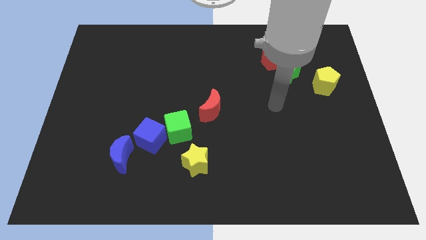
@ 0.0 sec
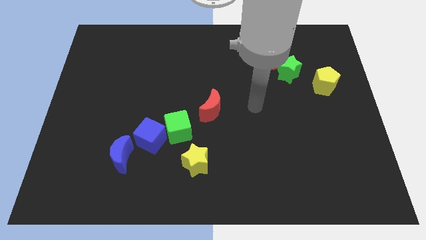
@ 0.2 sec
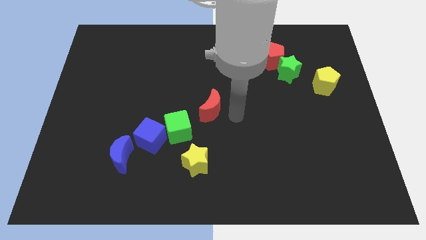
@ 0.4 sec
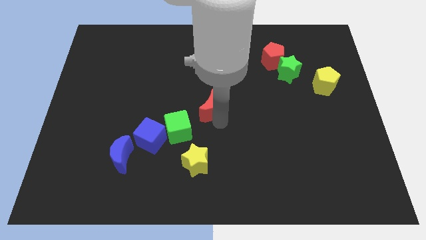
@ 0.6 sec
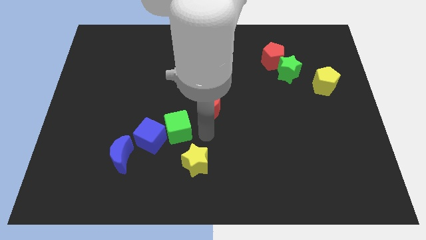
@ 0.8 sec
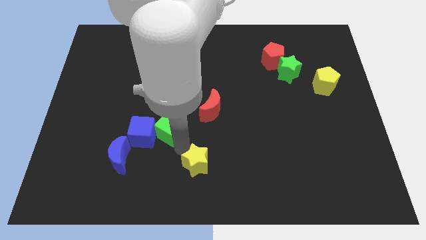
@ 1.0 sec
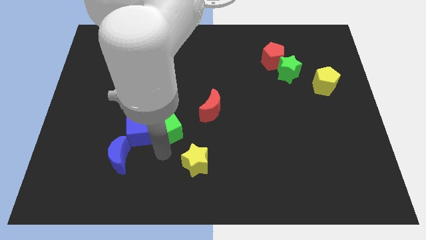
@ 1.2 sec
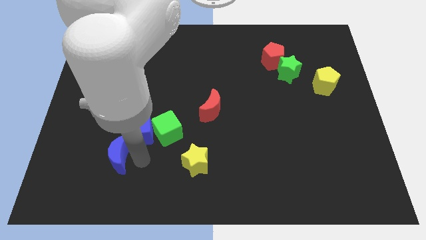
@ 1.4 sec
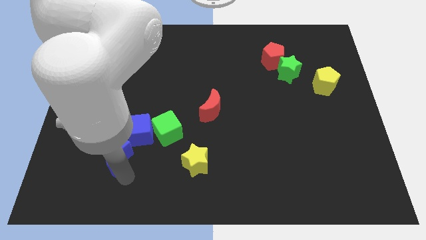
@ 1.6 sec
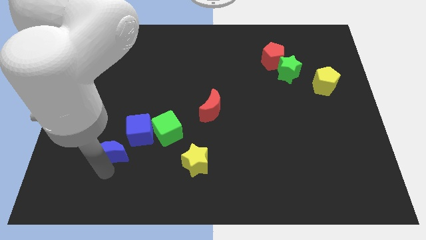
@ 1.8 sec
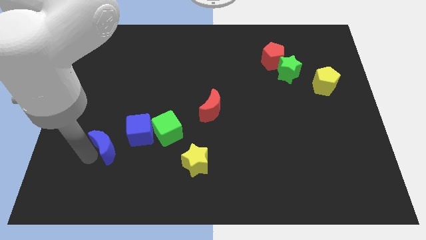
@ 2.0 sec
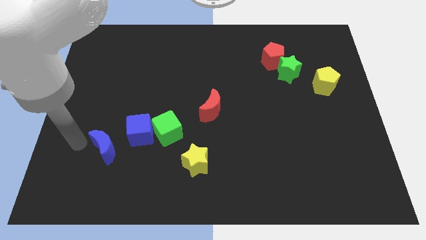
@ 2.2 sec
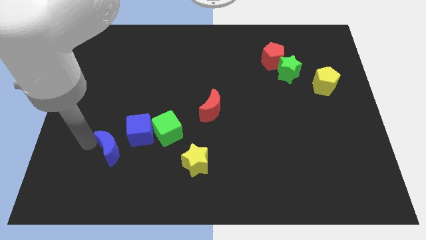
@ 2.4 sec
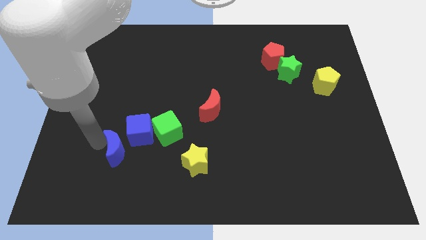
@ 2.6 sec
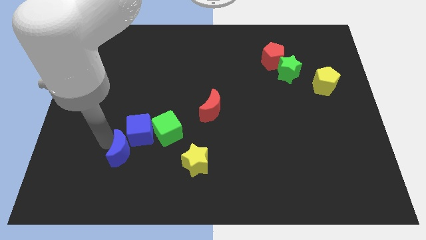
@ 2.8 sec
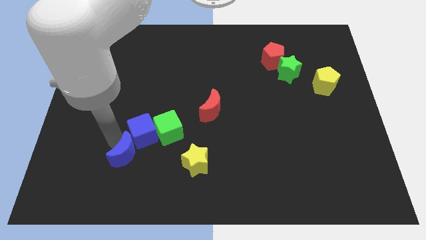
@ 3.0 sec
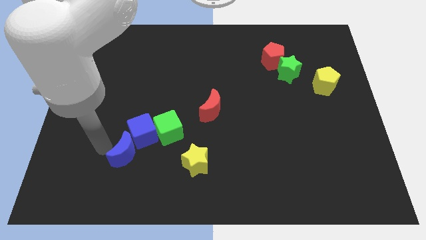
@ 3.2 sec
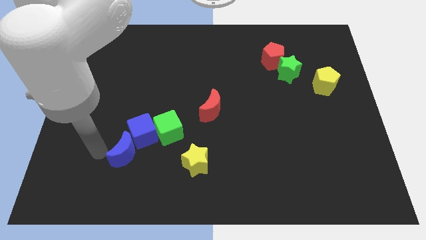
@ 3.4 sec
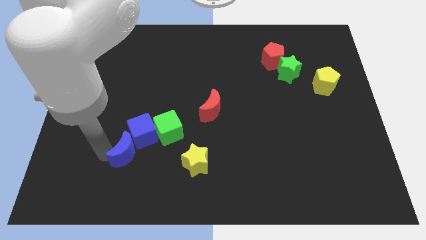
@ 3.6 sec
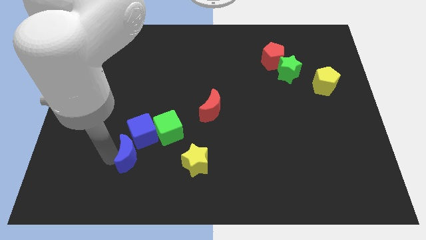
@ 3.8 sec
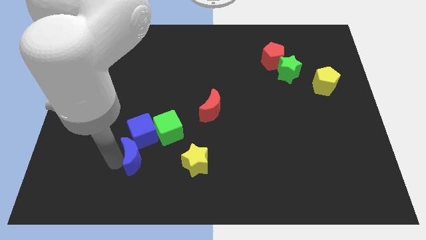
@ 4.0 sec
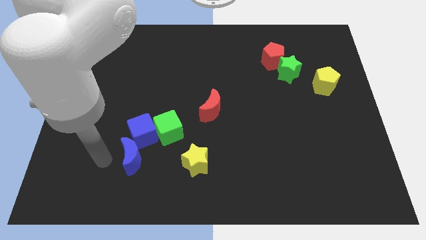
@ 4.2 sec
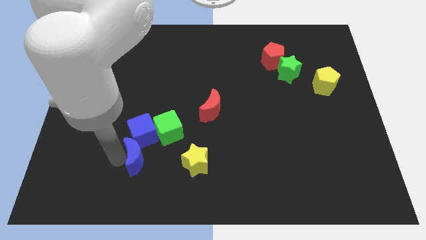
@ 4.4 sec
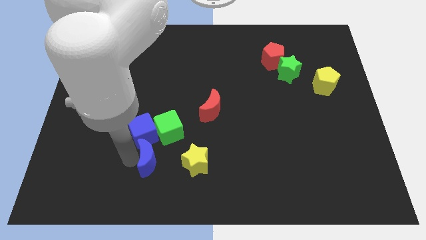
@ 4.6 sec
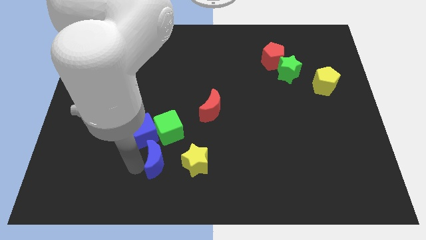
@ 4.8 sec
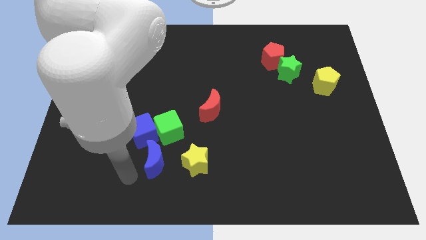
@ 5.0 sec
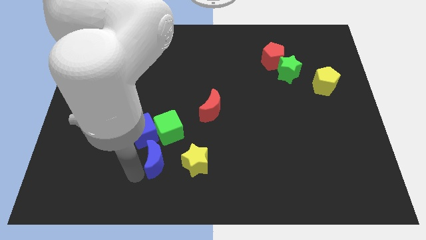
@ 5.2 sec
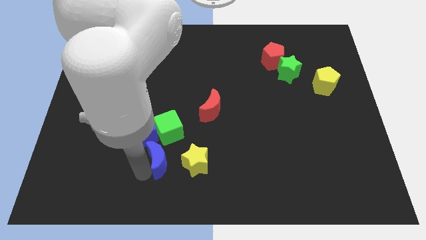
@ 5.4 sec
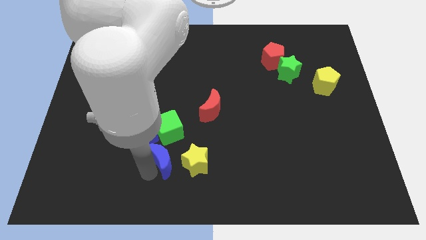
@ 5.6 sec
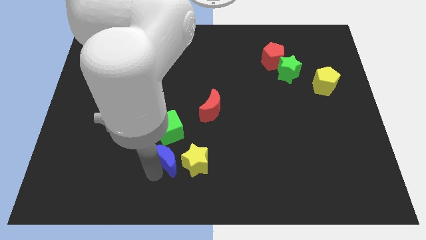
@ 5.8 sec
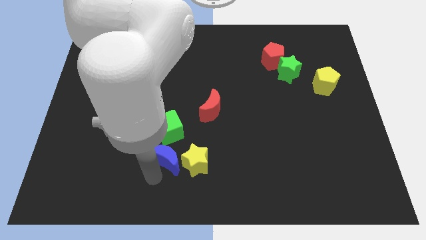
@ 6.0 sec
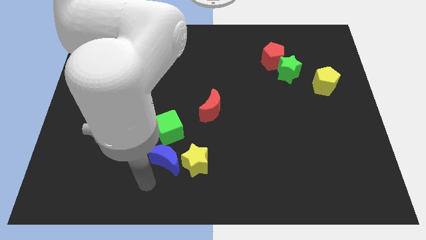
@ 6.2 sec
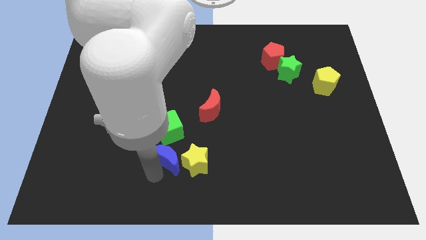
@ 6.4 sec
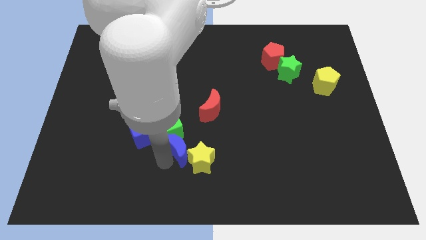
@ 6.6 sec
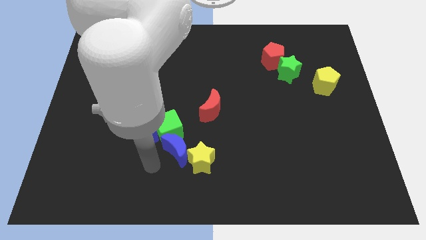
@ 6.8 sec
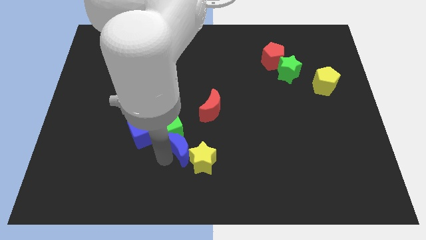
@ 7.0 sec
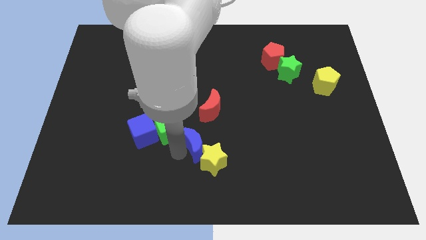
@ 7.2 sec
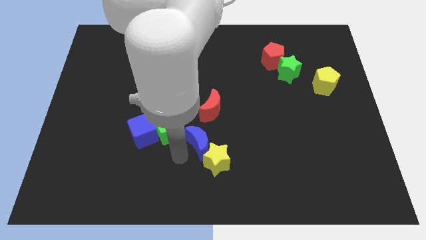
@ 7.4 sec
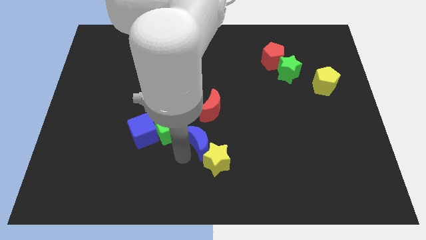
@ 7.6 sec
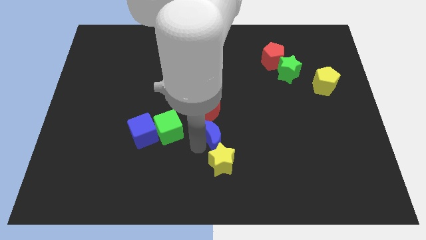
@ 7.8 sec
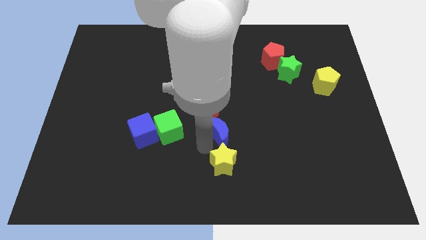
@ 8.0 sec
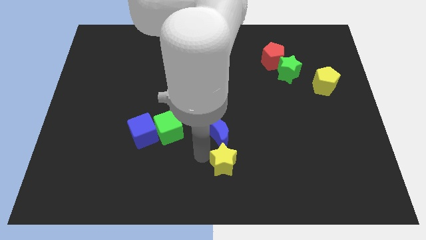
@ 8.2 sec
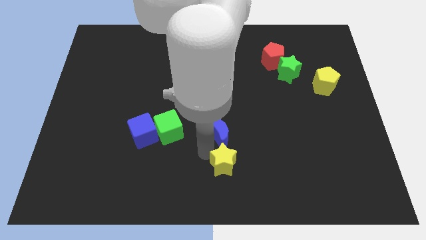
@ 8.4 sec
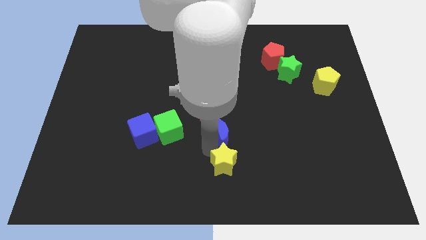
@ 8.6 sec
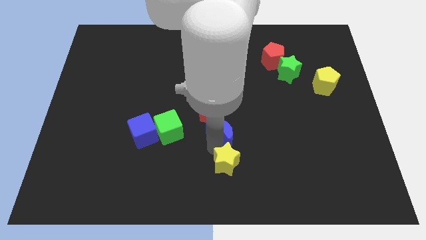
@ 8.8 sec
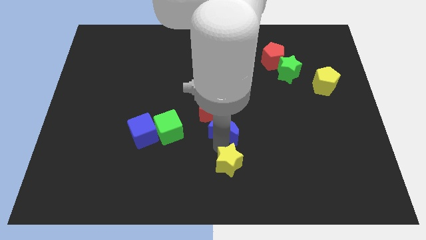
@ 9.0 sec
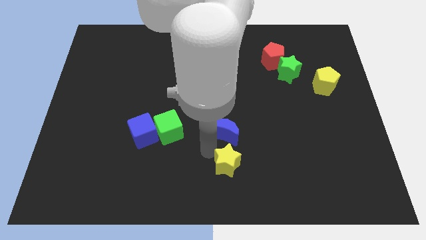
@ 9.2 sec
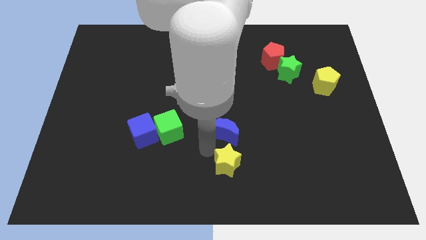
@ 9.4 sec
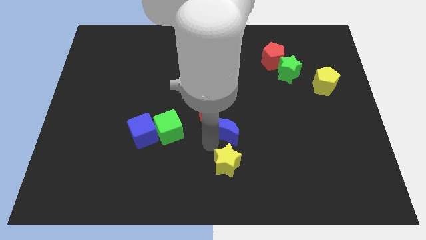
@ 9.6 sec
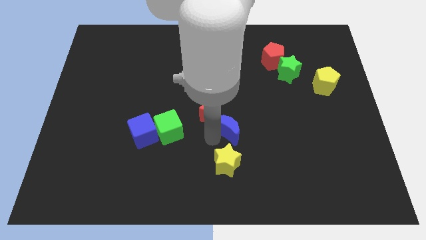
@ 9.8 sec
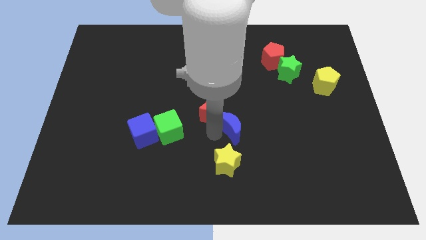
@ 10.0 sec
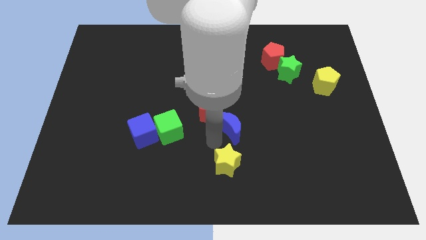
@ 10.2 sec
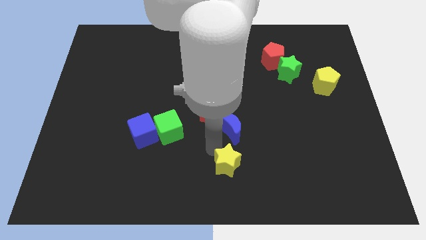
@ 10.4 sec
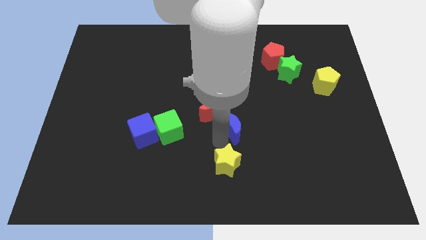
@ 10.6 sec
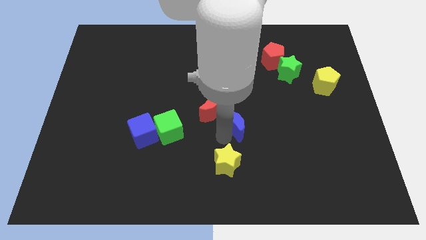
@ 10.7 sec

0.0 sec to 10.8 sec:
put the blue moon to the right of the red moon

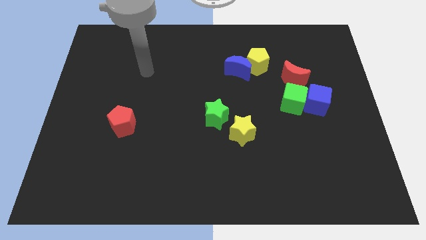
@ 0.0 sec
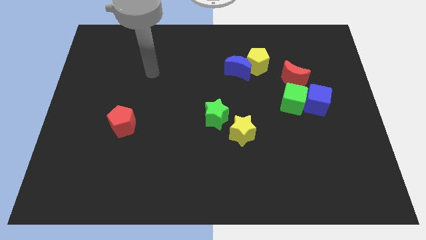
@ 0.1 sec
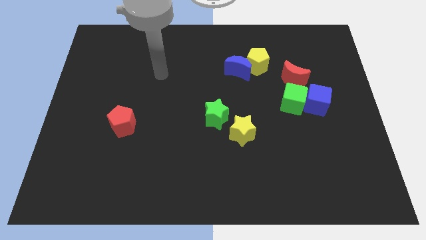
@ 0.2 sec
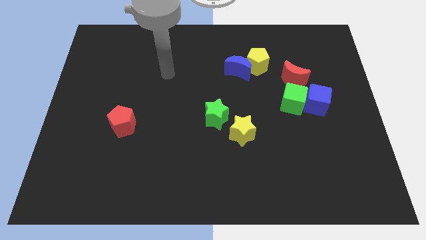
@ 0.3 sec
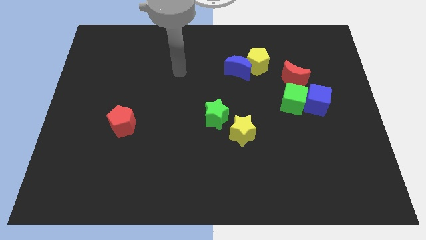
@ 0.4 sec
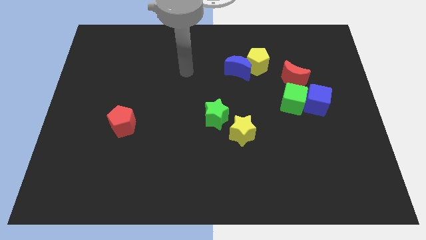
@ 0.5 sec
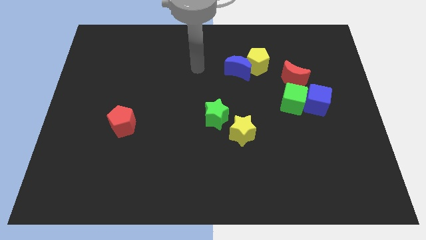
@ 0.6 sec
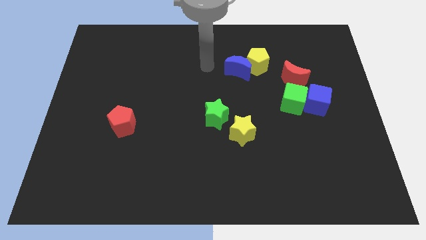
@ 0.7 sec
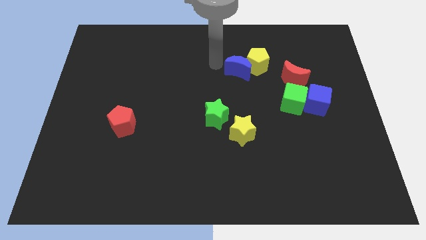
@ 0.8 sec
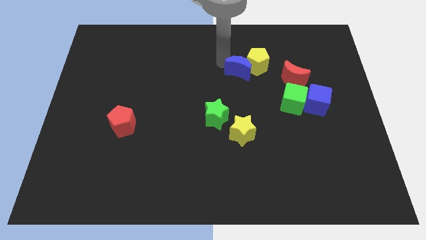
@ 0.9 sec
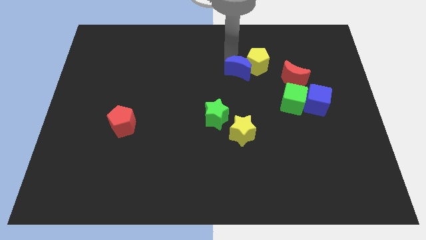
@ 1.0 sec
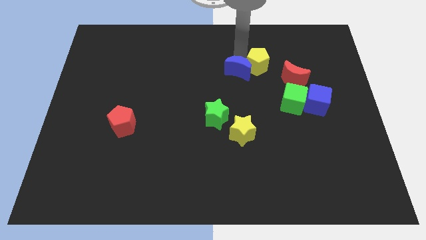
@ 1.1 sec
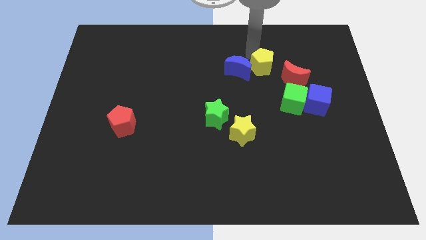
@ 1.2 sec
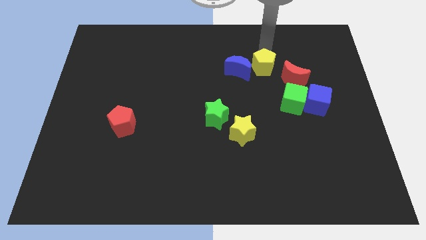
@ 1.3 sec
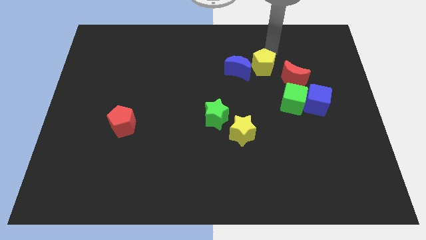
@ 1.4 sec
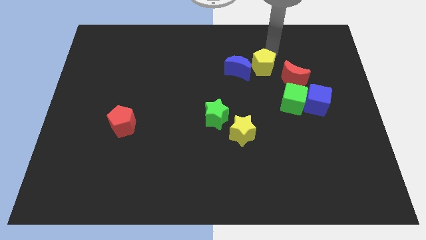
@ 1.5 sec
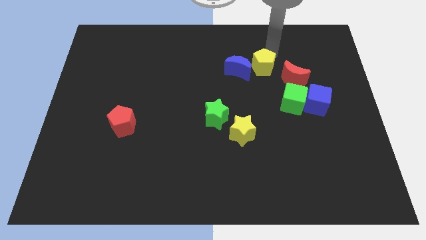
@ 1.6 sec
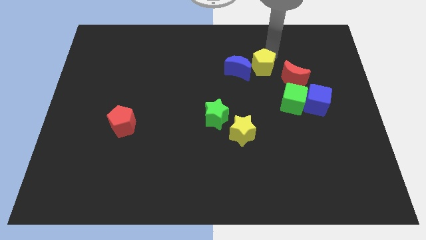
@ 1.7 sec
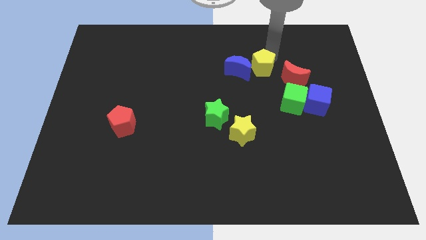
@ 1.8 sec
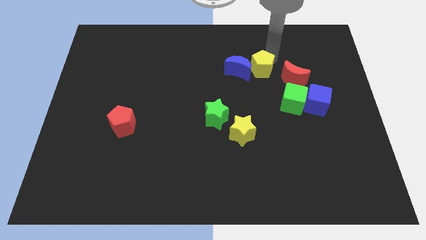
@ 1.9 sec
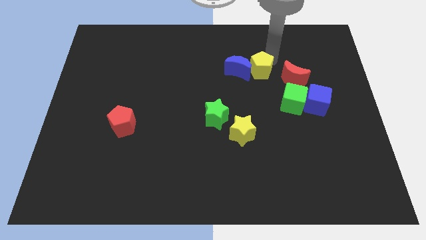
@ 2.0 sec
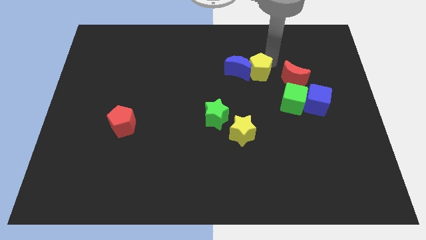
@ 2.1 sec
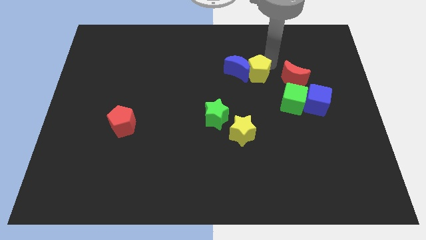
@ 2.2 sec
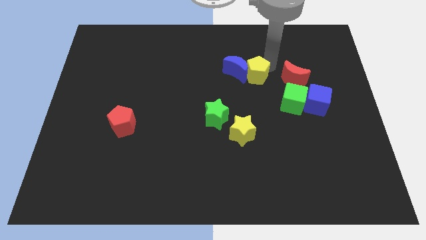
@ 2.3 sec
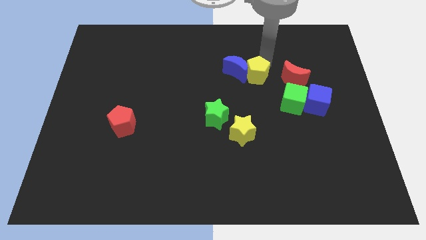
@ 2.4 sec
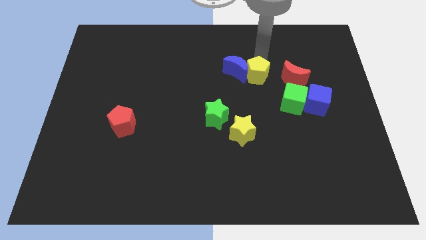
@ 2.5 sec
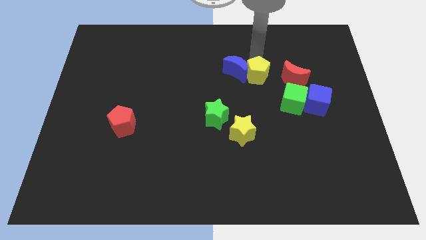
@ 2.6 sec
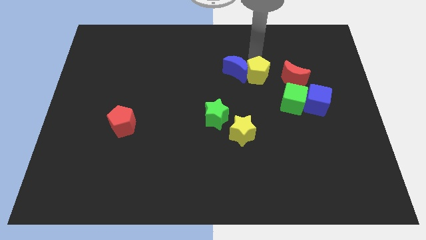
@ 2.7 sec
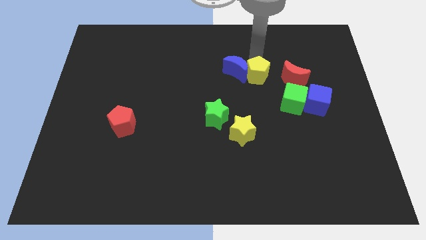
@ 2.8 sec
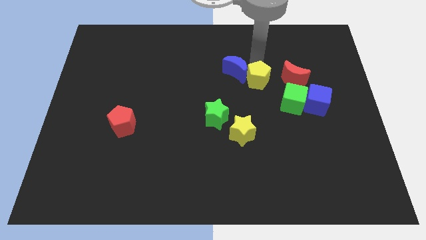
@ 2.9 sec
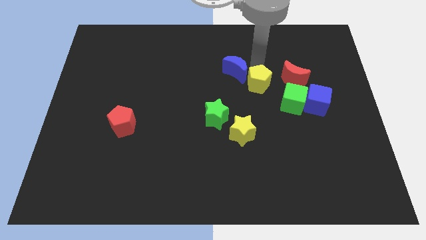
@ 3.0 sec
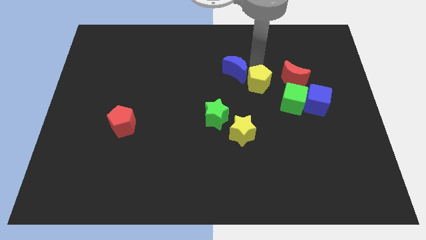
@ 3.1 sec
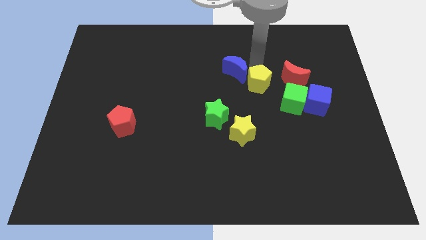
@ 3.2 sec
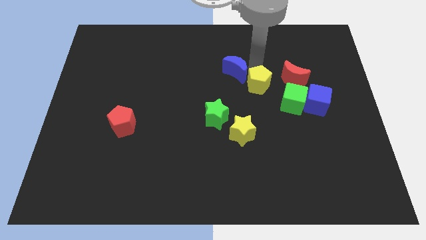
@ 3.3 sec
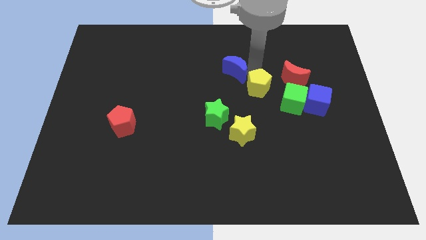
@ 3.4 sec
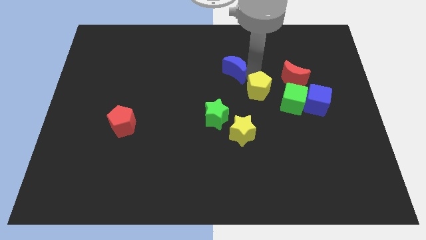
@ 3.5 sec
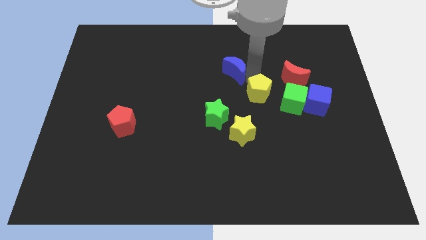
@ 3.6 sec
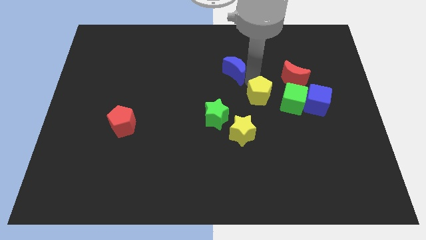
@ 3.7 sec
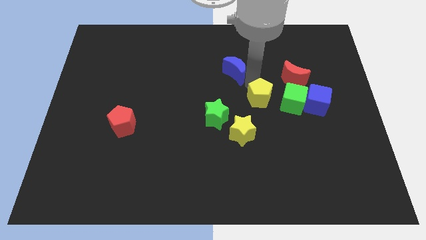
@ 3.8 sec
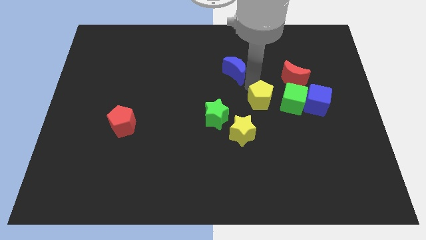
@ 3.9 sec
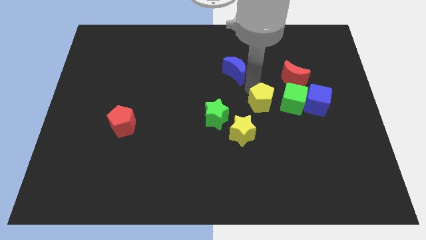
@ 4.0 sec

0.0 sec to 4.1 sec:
put the yellow pentagon right of the green star
